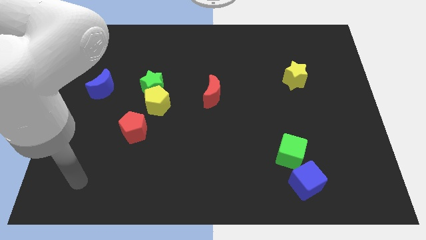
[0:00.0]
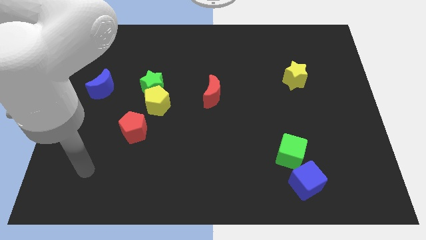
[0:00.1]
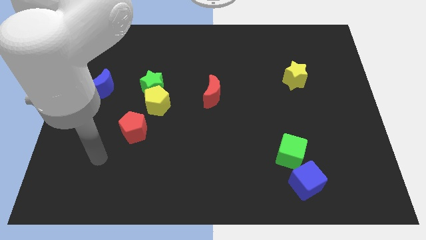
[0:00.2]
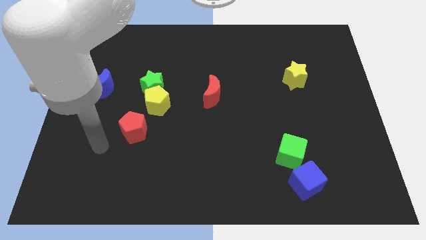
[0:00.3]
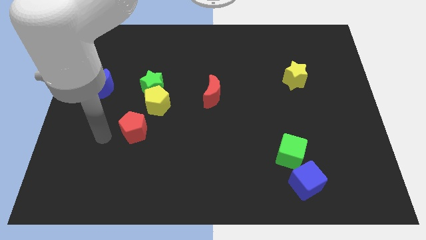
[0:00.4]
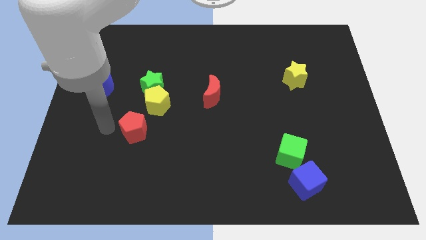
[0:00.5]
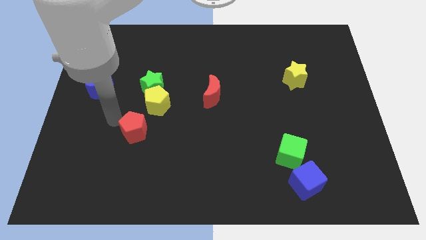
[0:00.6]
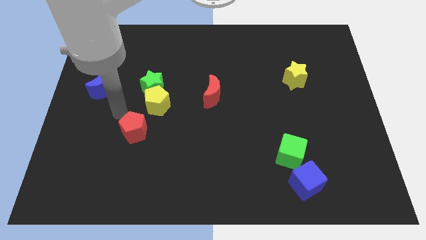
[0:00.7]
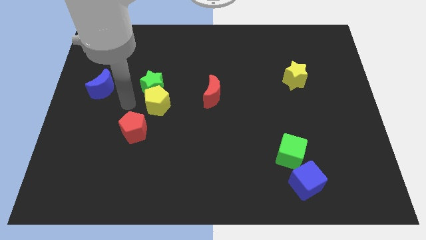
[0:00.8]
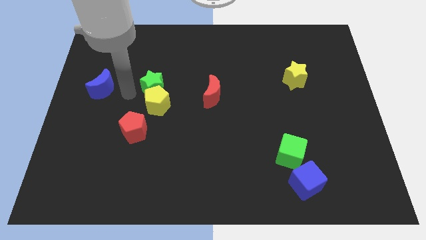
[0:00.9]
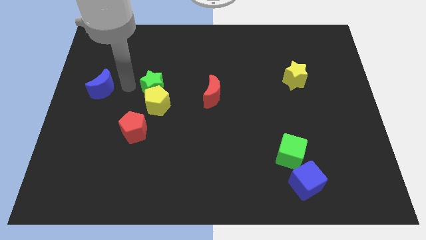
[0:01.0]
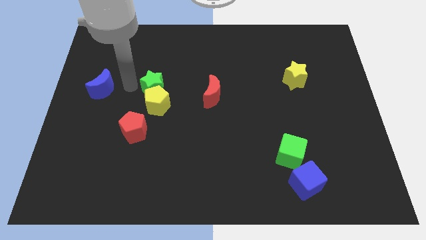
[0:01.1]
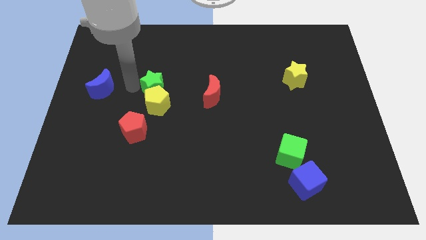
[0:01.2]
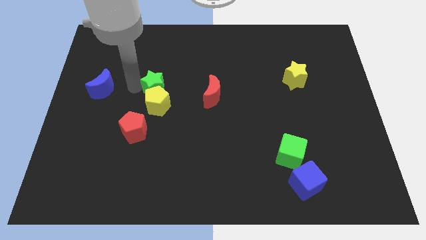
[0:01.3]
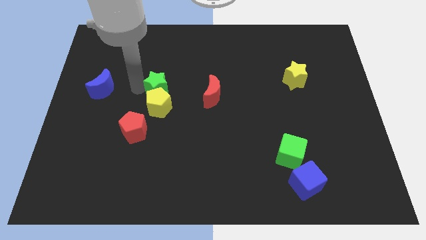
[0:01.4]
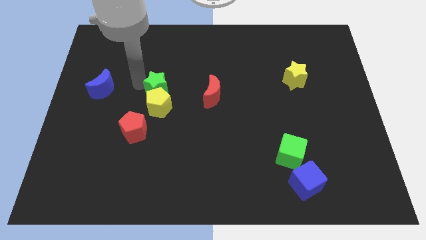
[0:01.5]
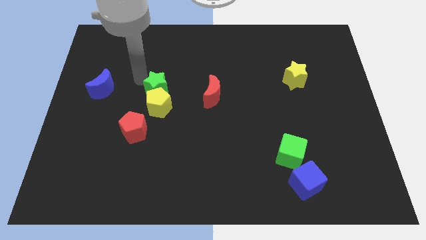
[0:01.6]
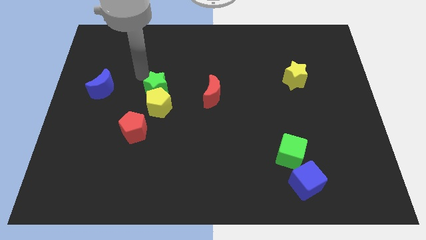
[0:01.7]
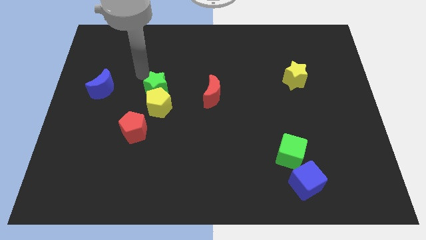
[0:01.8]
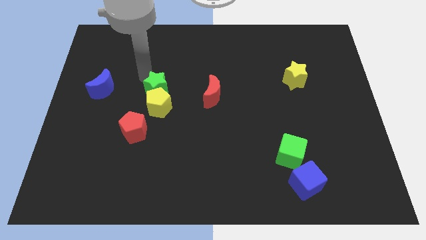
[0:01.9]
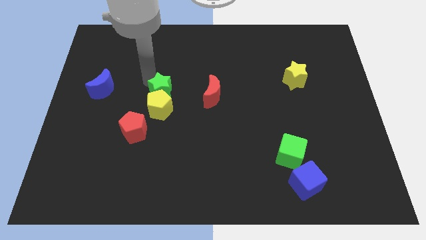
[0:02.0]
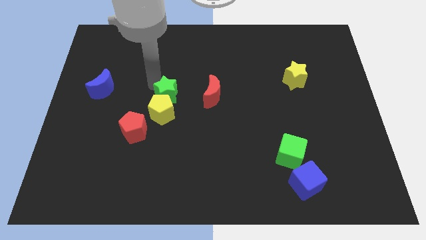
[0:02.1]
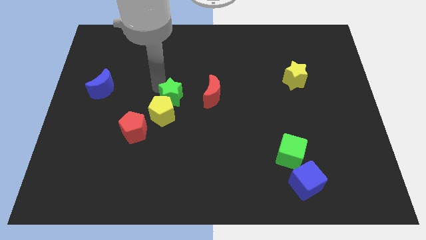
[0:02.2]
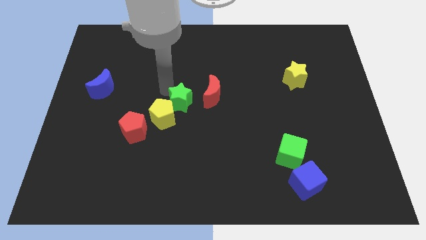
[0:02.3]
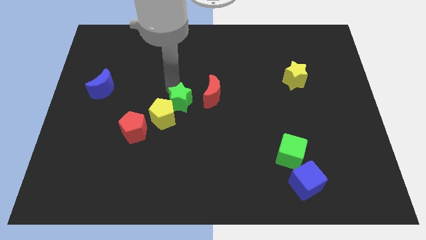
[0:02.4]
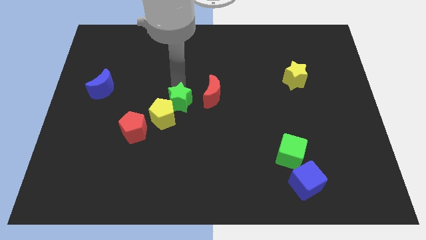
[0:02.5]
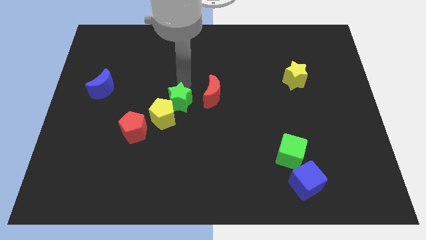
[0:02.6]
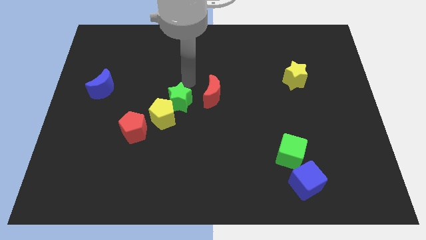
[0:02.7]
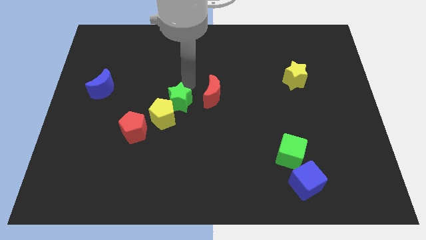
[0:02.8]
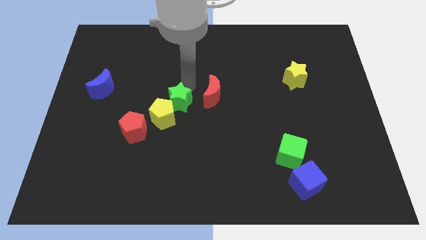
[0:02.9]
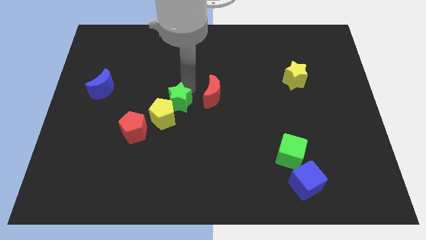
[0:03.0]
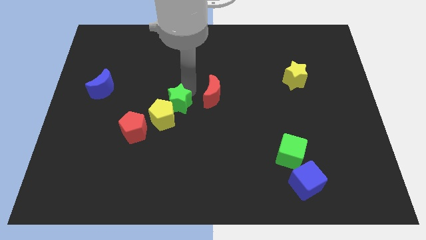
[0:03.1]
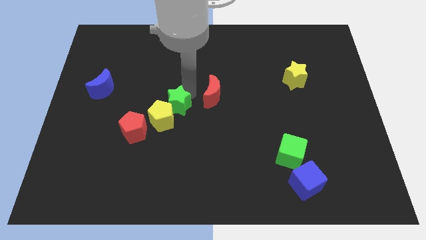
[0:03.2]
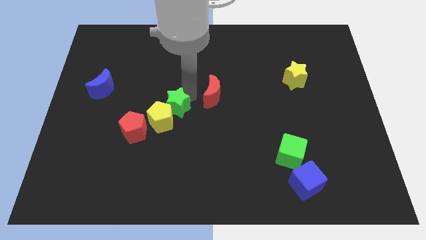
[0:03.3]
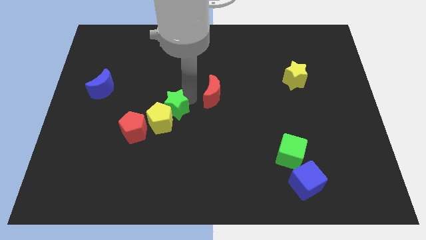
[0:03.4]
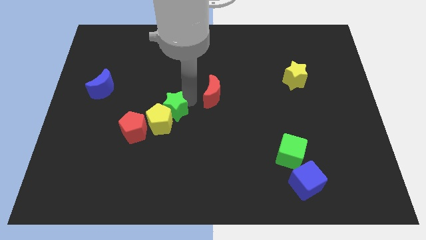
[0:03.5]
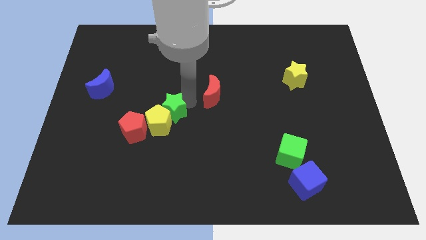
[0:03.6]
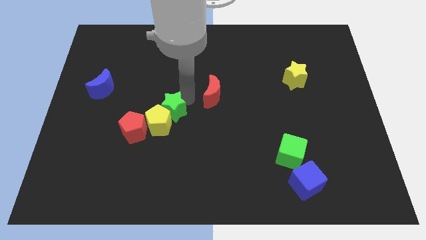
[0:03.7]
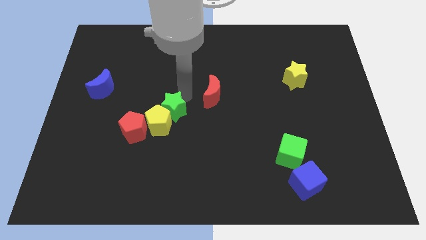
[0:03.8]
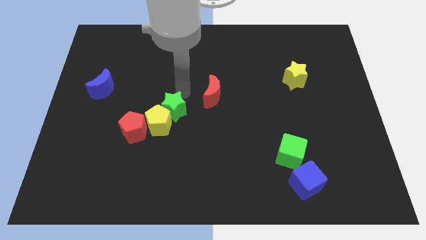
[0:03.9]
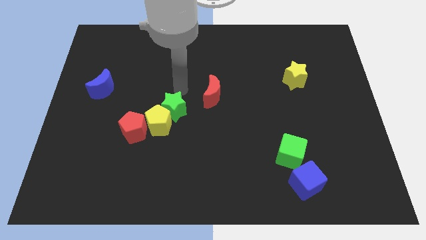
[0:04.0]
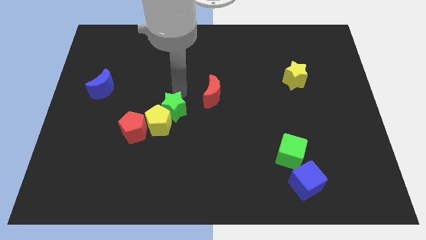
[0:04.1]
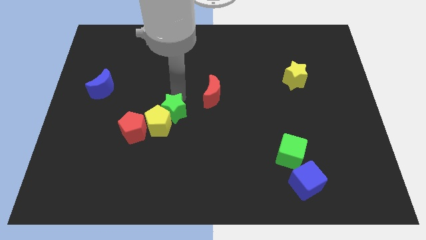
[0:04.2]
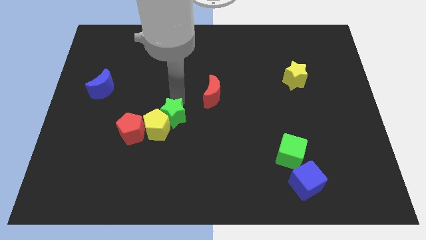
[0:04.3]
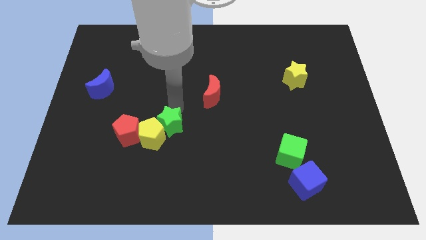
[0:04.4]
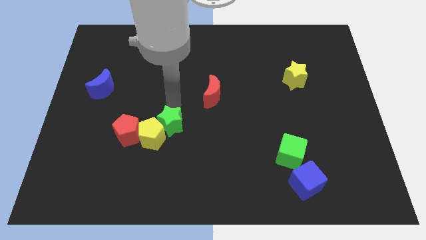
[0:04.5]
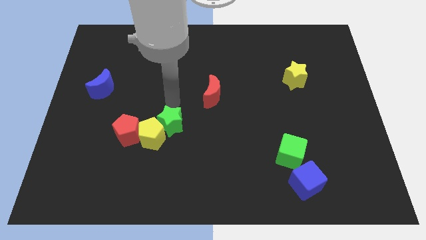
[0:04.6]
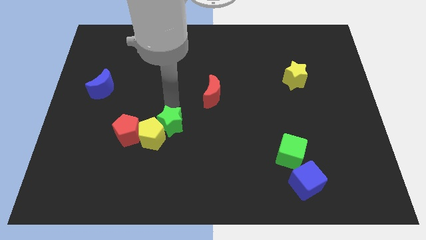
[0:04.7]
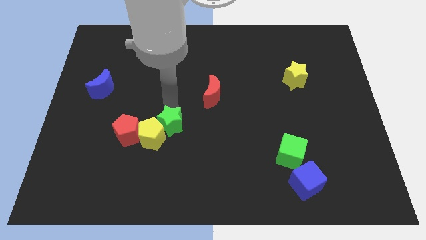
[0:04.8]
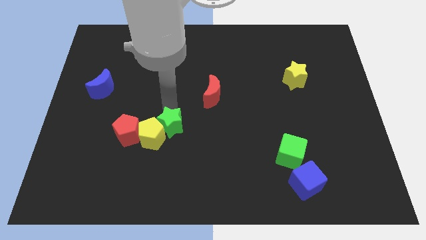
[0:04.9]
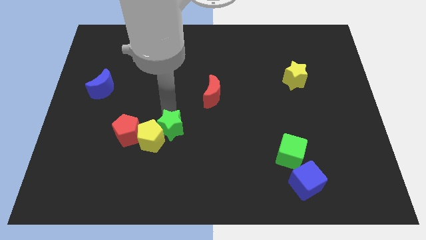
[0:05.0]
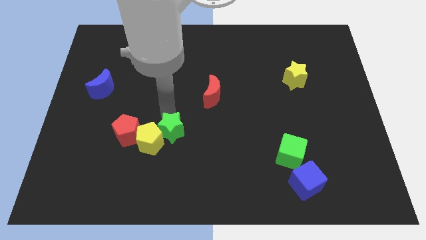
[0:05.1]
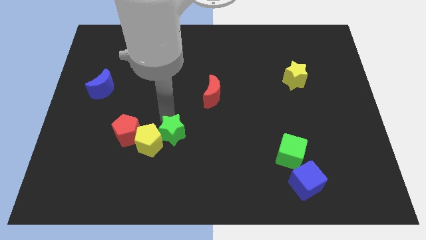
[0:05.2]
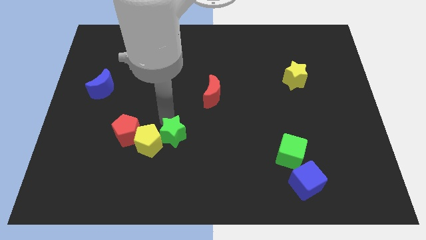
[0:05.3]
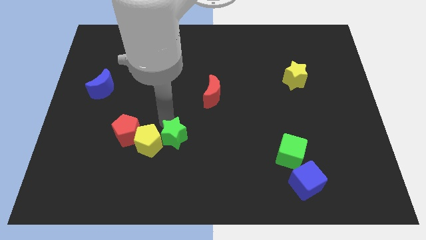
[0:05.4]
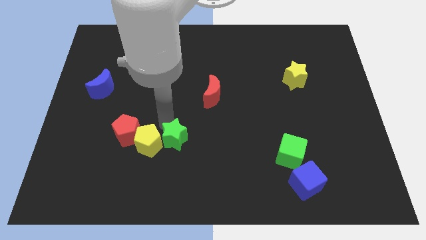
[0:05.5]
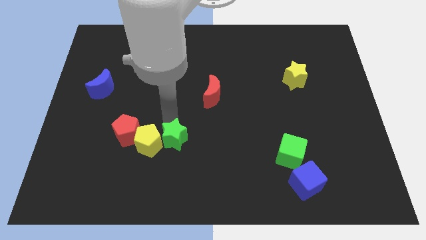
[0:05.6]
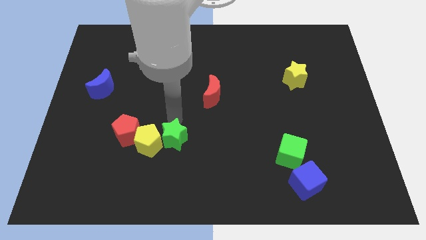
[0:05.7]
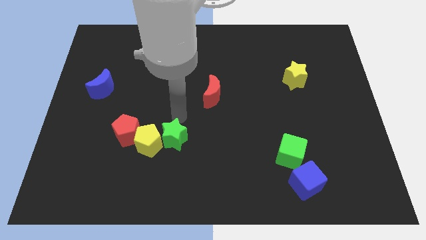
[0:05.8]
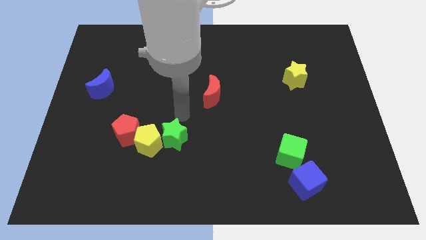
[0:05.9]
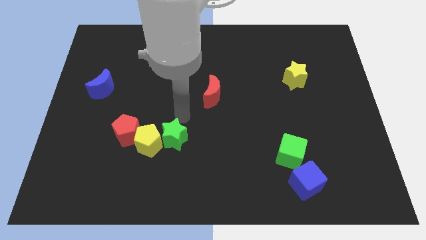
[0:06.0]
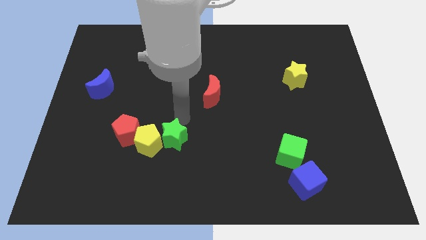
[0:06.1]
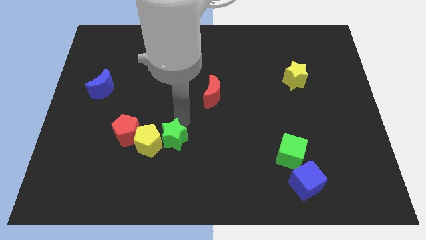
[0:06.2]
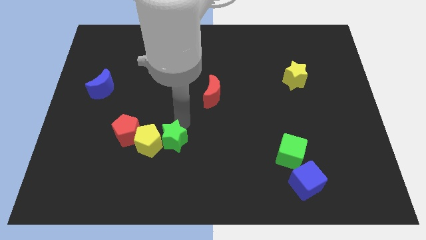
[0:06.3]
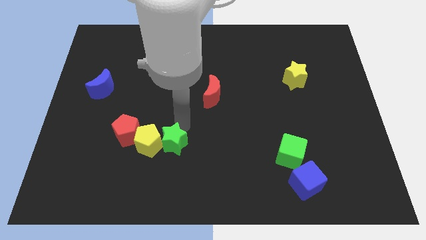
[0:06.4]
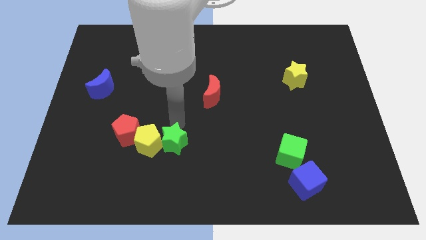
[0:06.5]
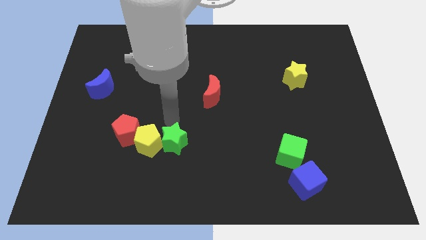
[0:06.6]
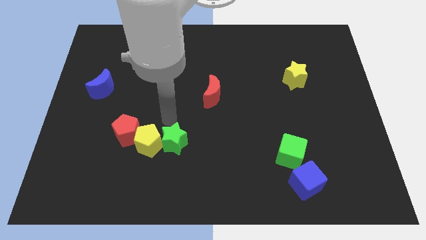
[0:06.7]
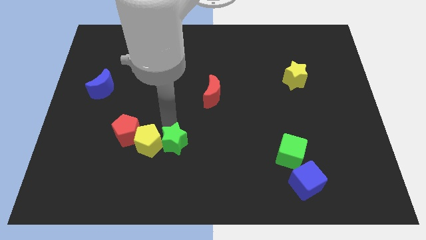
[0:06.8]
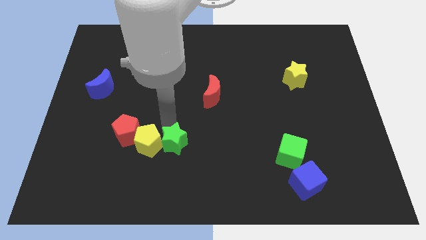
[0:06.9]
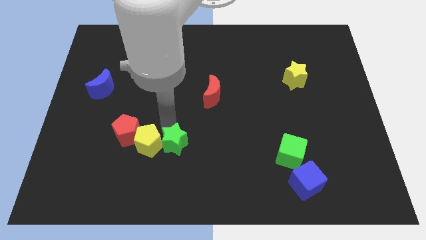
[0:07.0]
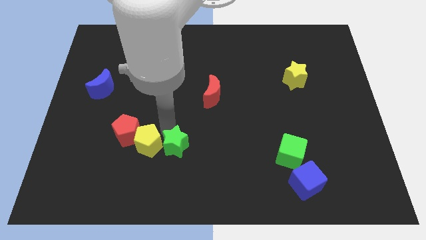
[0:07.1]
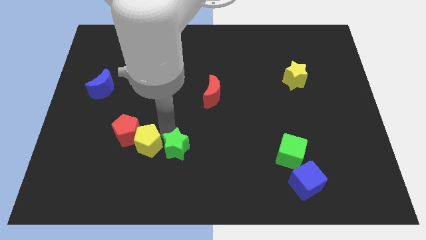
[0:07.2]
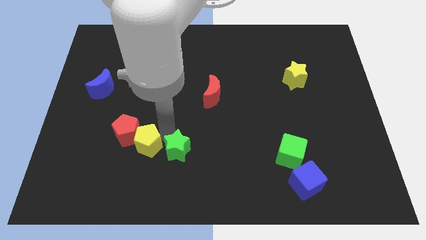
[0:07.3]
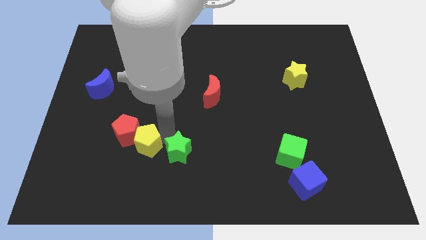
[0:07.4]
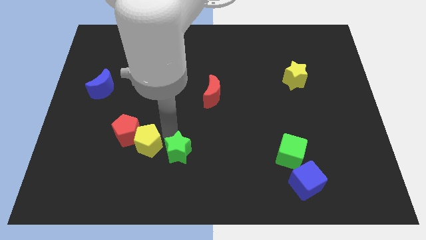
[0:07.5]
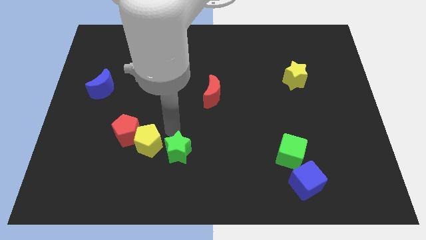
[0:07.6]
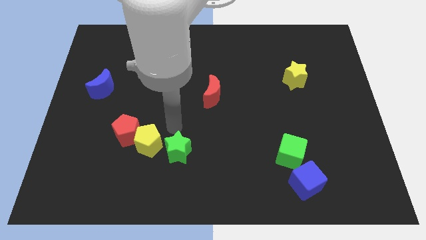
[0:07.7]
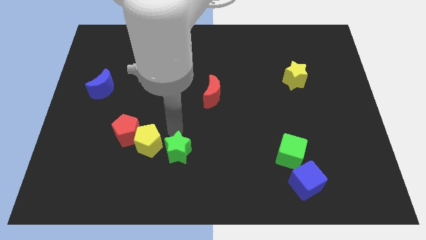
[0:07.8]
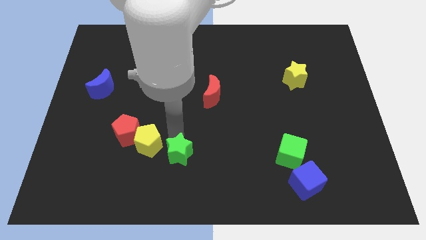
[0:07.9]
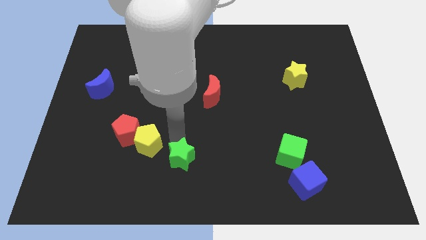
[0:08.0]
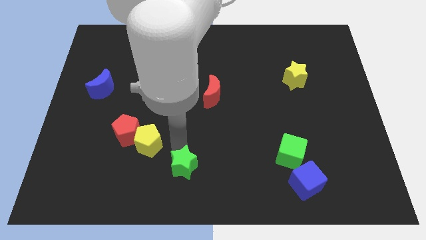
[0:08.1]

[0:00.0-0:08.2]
move the green star to the bottom
